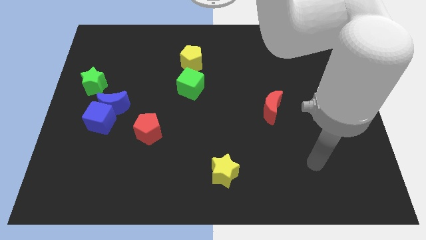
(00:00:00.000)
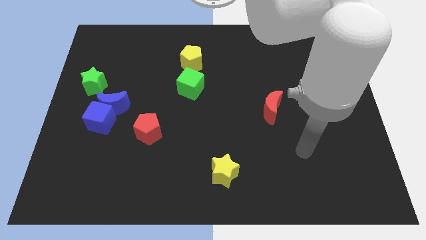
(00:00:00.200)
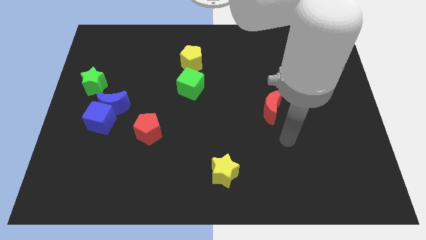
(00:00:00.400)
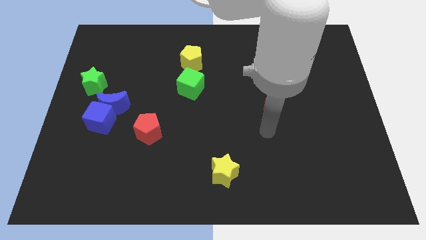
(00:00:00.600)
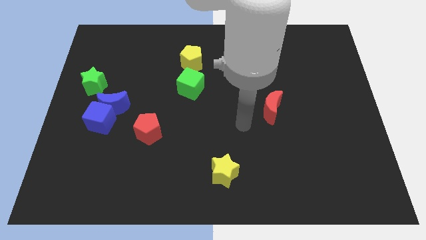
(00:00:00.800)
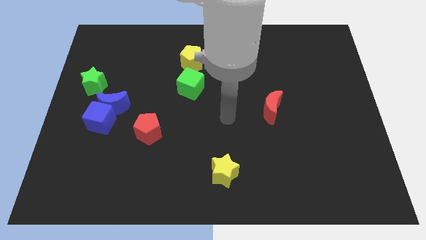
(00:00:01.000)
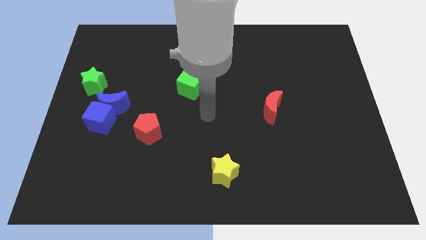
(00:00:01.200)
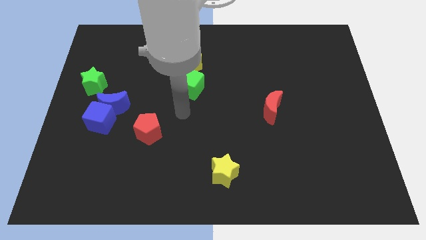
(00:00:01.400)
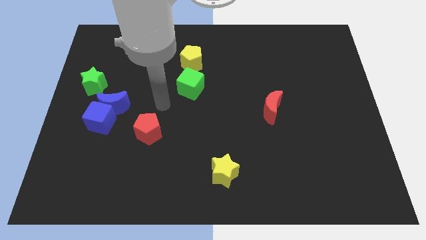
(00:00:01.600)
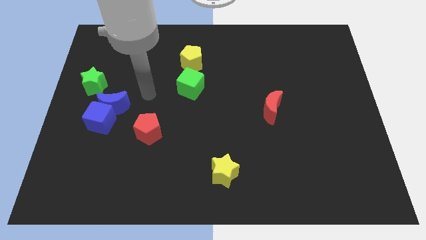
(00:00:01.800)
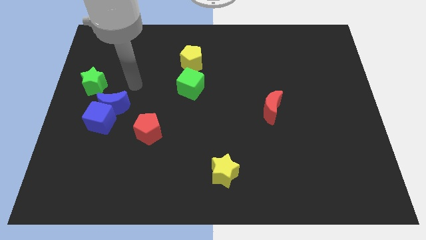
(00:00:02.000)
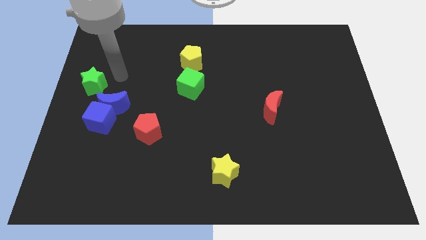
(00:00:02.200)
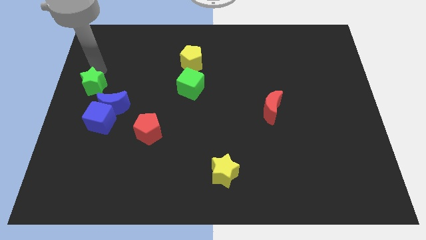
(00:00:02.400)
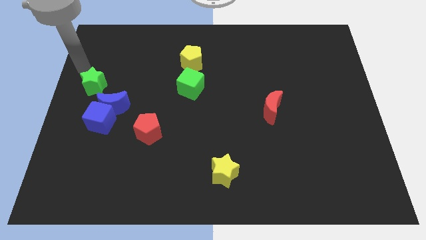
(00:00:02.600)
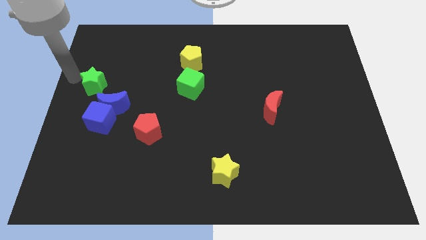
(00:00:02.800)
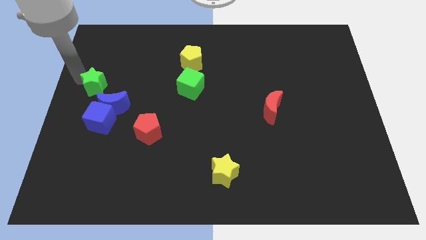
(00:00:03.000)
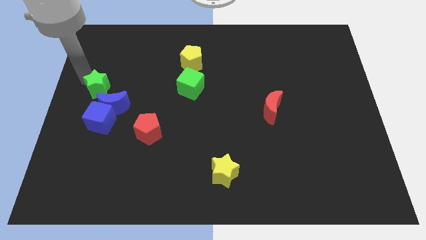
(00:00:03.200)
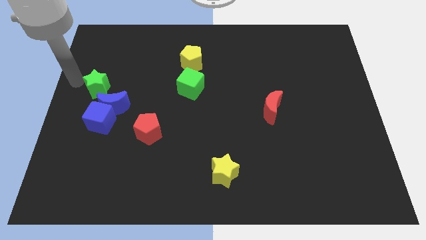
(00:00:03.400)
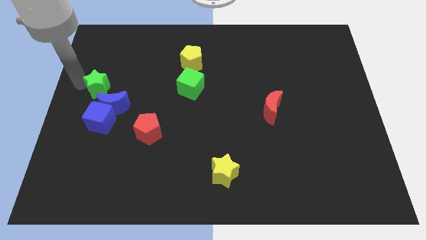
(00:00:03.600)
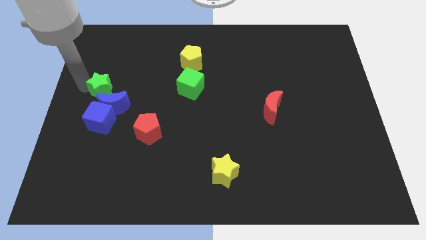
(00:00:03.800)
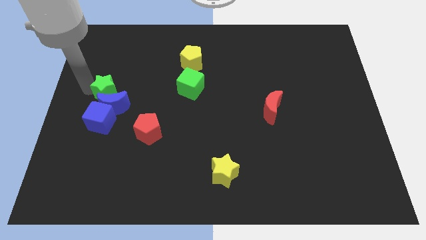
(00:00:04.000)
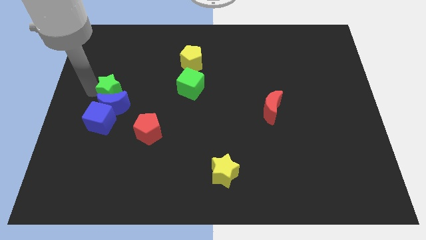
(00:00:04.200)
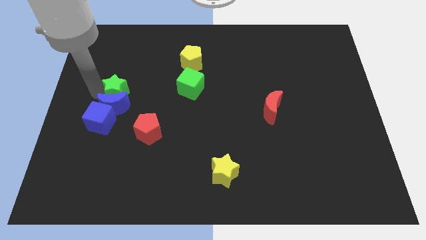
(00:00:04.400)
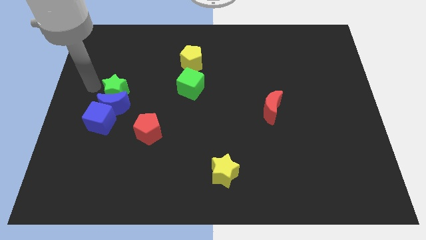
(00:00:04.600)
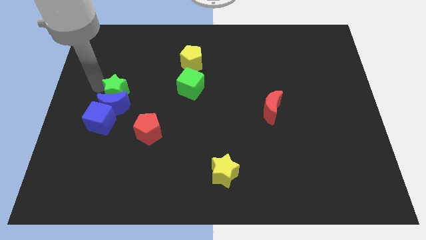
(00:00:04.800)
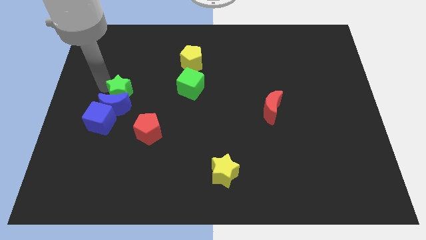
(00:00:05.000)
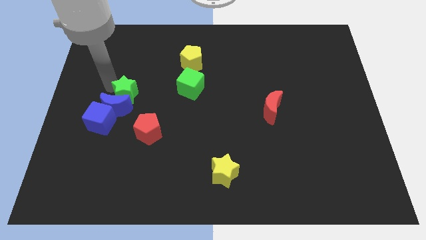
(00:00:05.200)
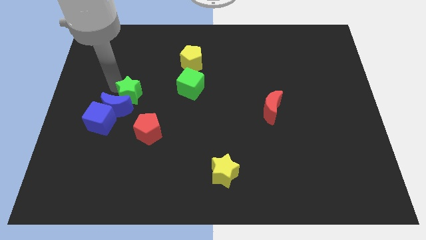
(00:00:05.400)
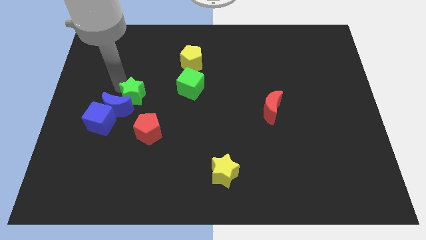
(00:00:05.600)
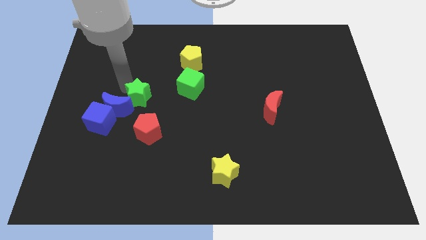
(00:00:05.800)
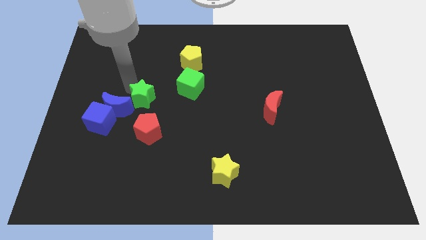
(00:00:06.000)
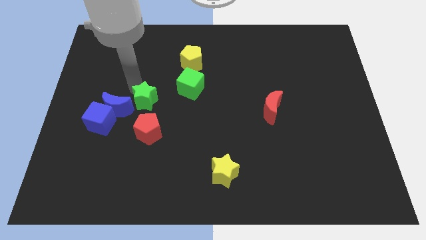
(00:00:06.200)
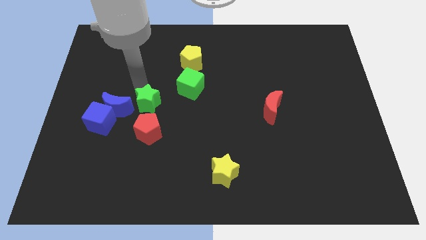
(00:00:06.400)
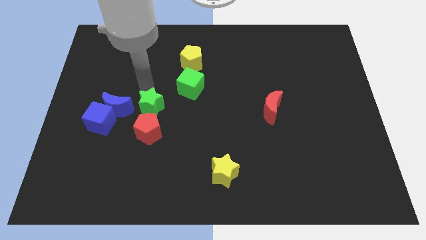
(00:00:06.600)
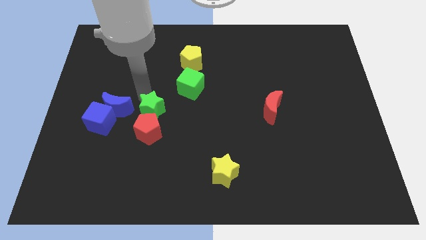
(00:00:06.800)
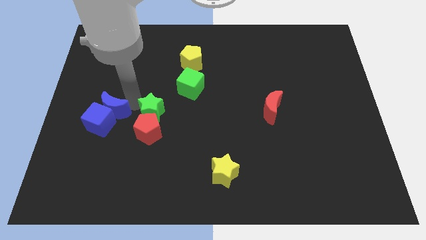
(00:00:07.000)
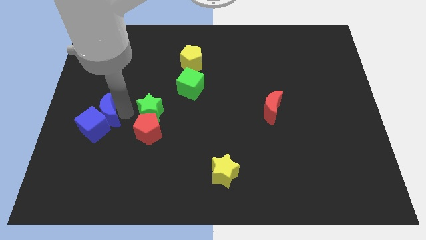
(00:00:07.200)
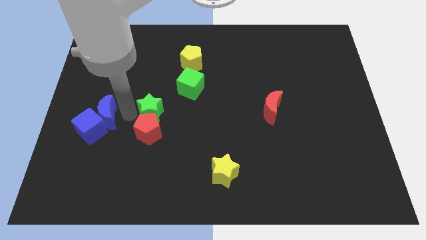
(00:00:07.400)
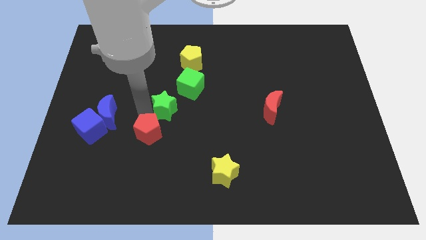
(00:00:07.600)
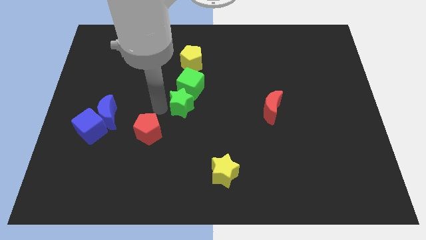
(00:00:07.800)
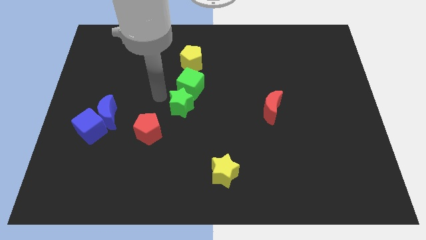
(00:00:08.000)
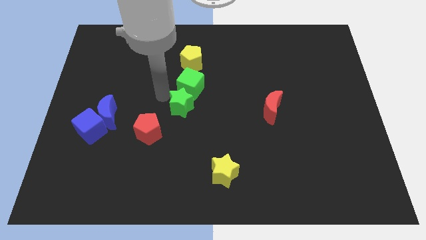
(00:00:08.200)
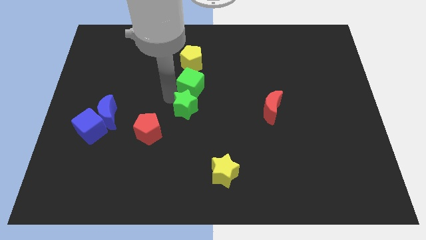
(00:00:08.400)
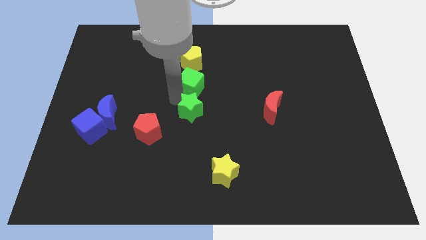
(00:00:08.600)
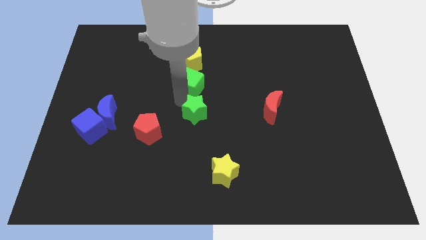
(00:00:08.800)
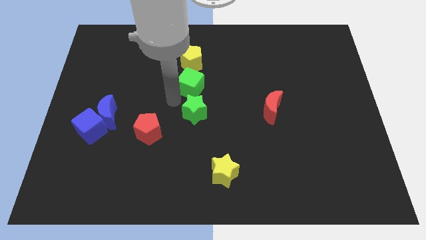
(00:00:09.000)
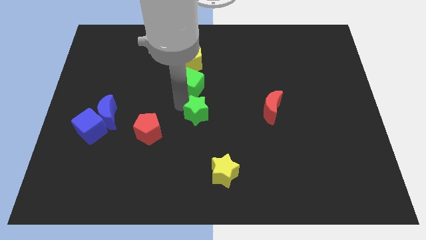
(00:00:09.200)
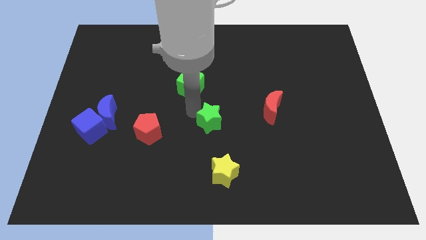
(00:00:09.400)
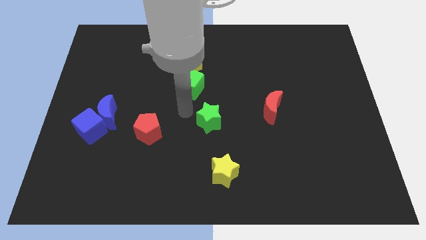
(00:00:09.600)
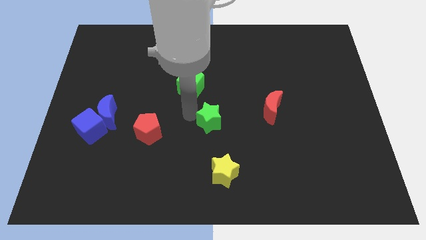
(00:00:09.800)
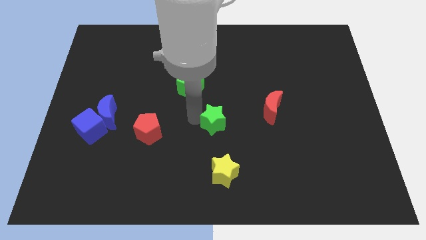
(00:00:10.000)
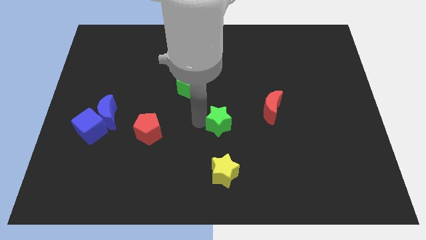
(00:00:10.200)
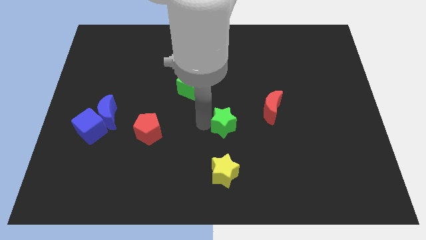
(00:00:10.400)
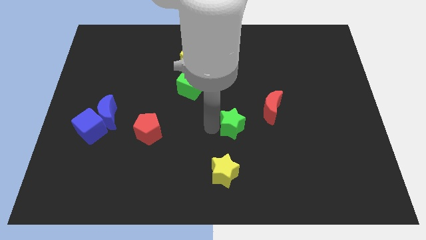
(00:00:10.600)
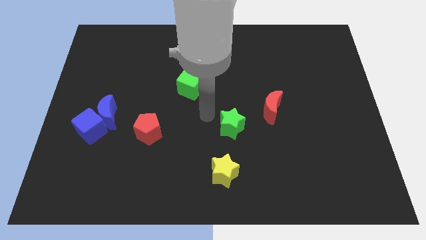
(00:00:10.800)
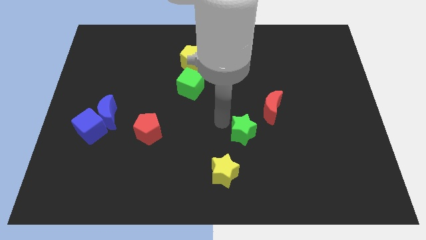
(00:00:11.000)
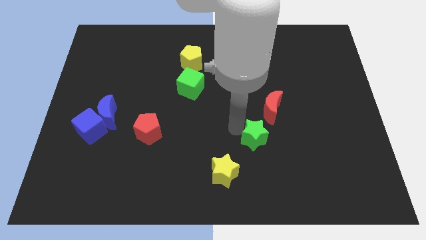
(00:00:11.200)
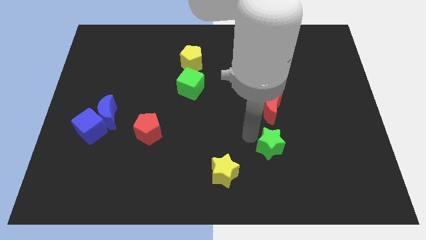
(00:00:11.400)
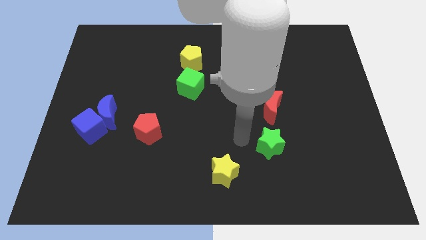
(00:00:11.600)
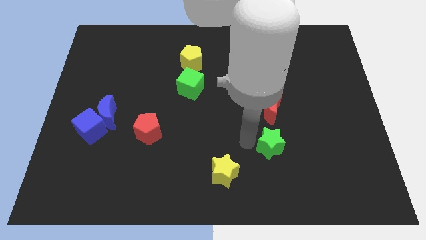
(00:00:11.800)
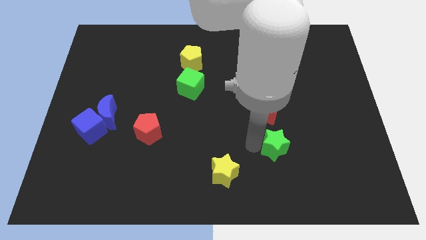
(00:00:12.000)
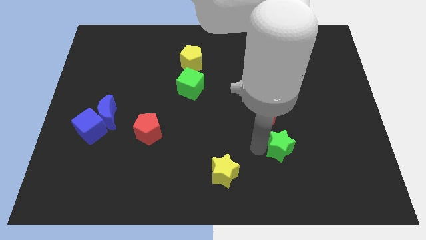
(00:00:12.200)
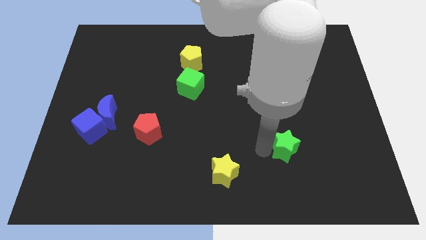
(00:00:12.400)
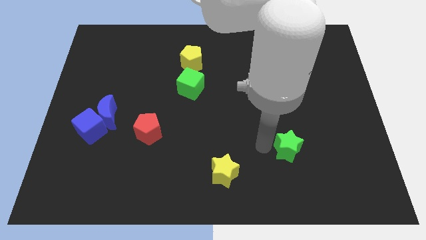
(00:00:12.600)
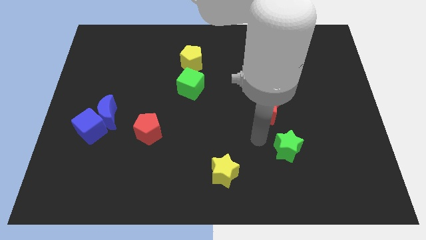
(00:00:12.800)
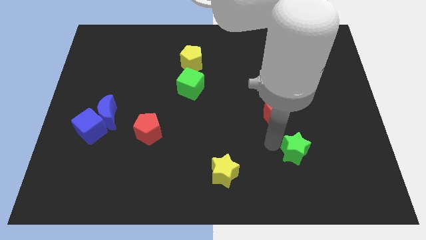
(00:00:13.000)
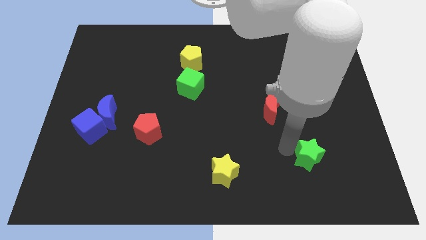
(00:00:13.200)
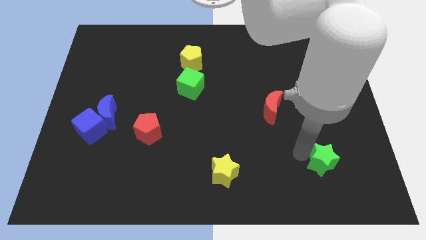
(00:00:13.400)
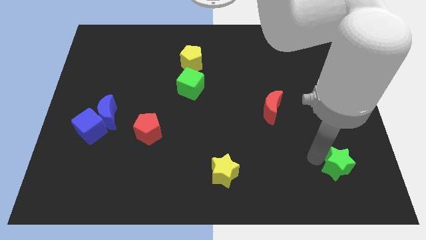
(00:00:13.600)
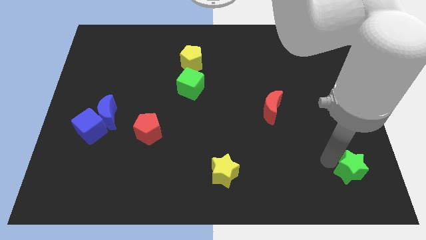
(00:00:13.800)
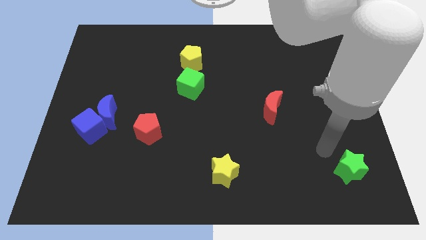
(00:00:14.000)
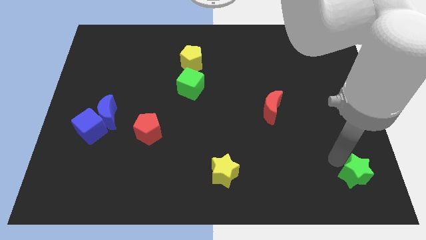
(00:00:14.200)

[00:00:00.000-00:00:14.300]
put the green star to the bottom right corner
